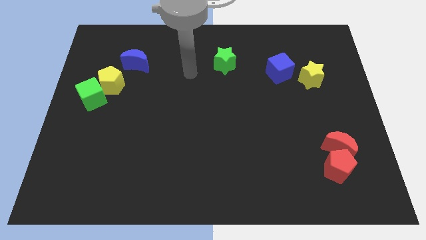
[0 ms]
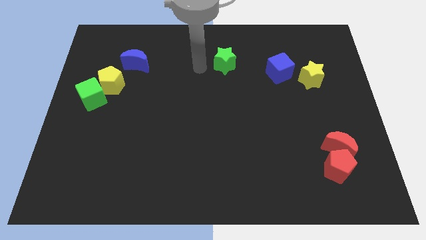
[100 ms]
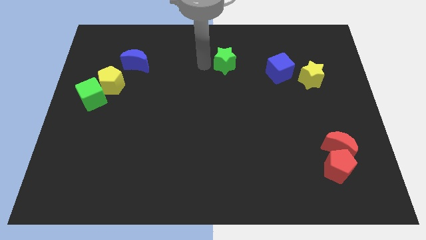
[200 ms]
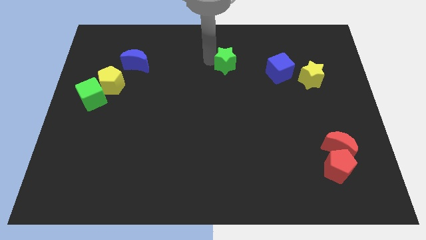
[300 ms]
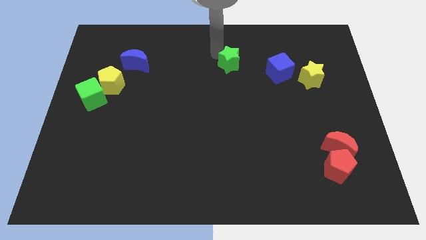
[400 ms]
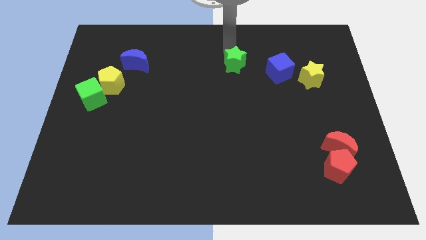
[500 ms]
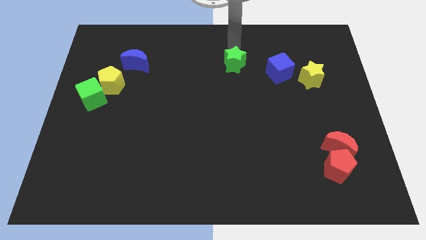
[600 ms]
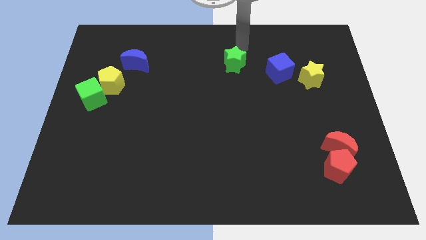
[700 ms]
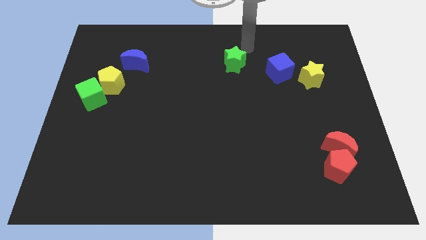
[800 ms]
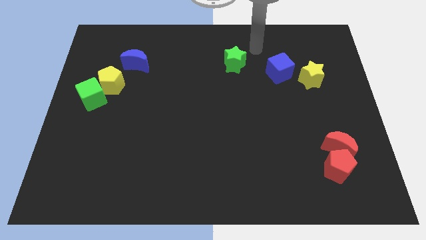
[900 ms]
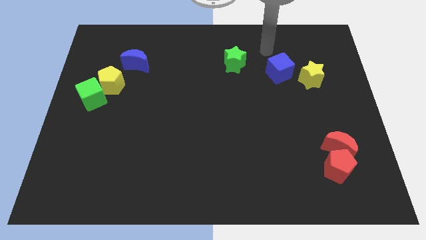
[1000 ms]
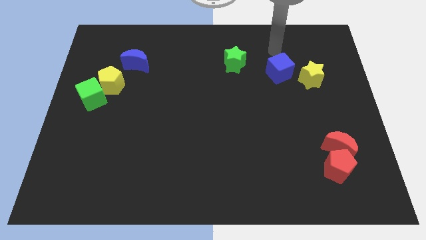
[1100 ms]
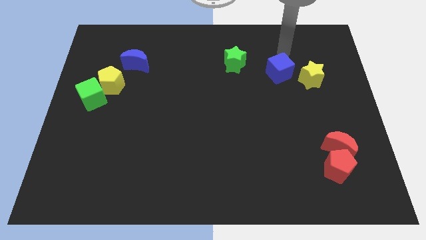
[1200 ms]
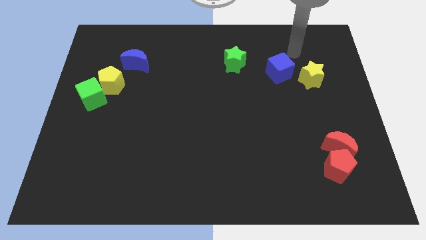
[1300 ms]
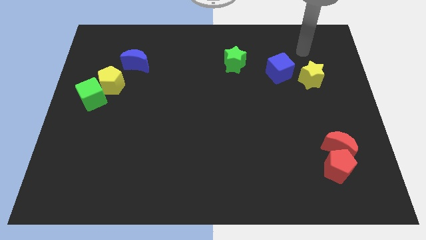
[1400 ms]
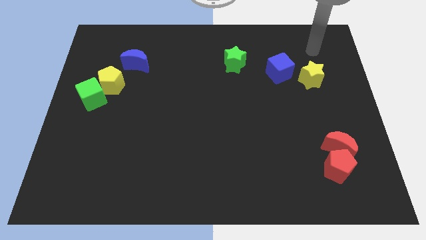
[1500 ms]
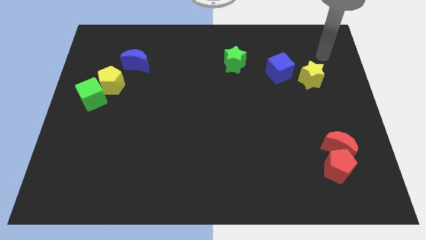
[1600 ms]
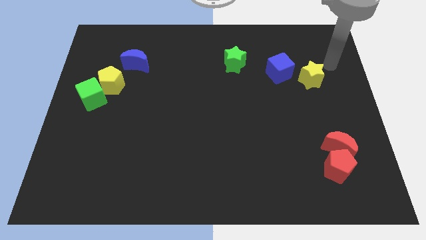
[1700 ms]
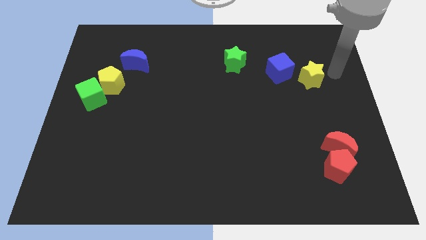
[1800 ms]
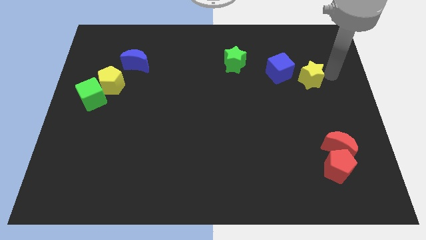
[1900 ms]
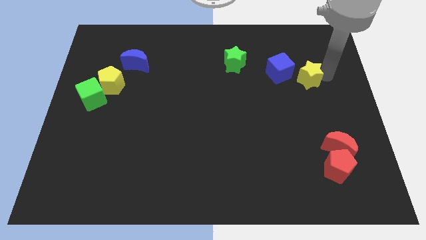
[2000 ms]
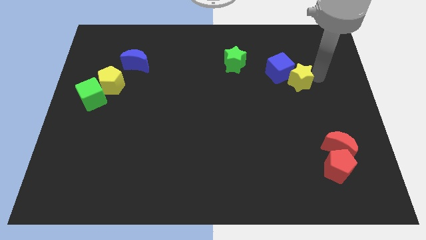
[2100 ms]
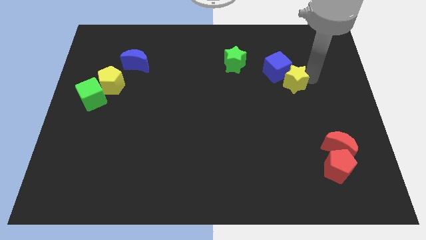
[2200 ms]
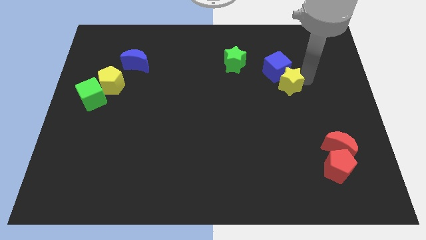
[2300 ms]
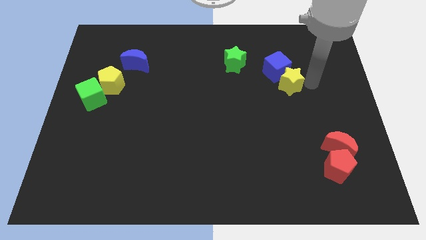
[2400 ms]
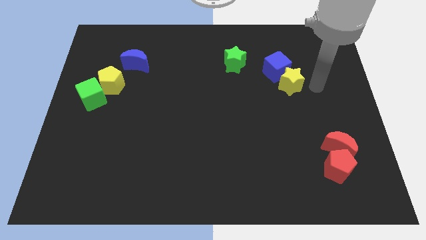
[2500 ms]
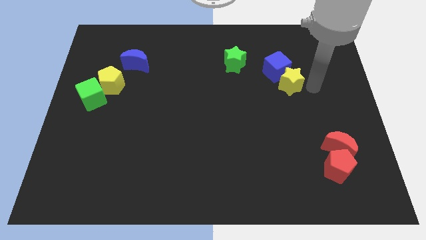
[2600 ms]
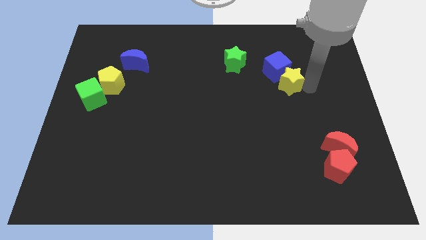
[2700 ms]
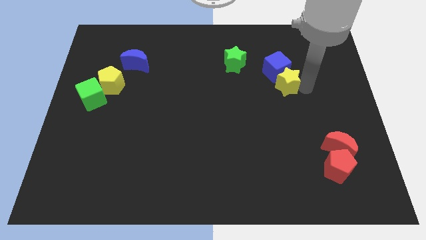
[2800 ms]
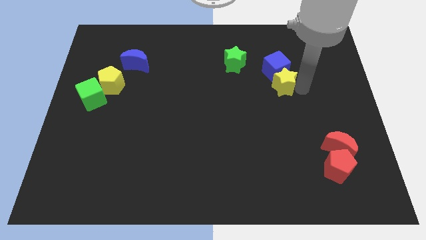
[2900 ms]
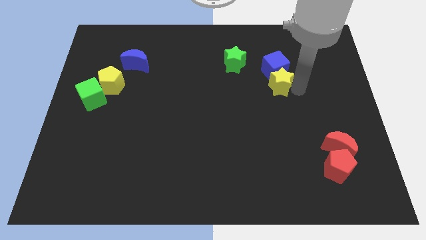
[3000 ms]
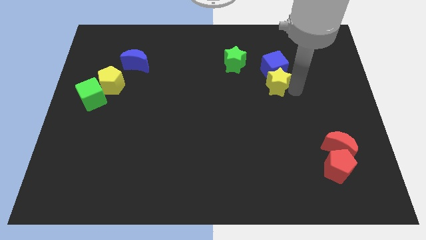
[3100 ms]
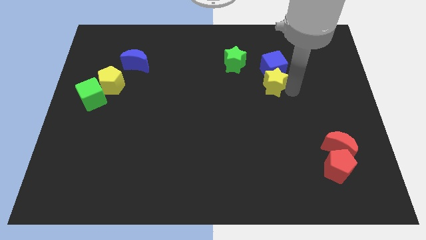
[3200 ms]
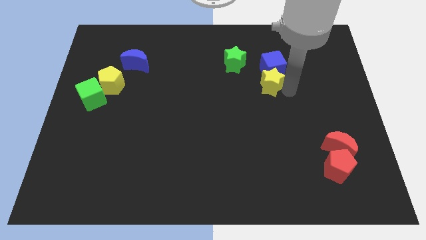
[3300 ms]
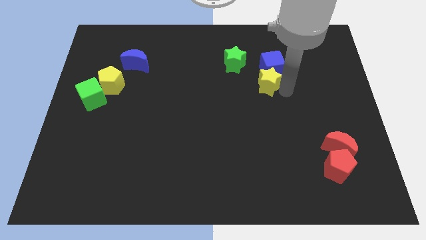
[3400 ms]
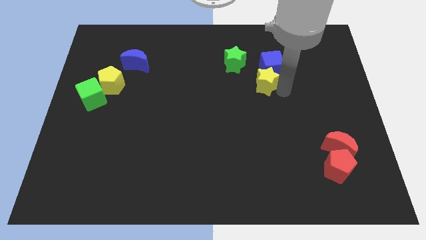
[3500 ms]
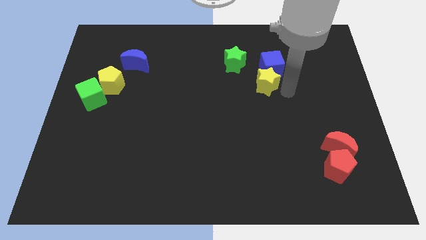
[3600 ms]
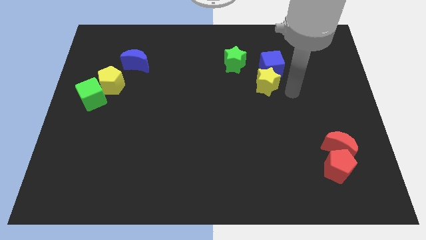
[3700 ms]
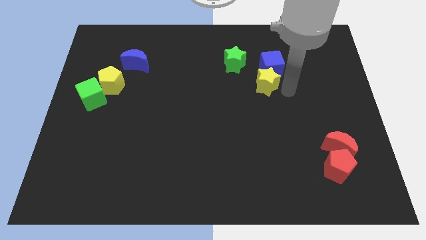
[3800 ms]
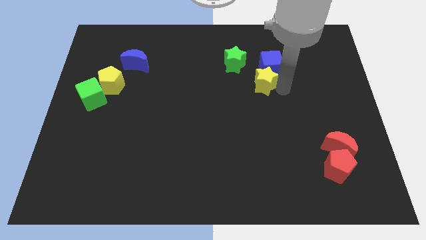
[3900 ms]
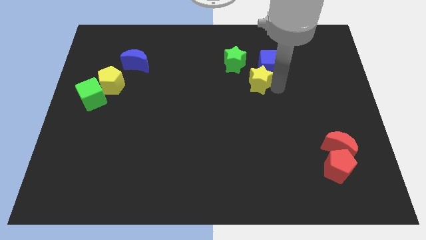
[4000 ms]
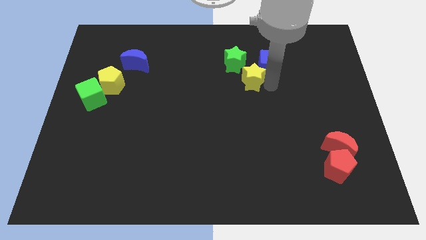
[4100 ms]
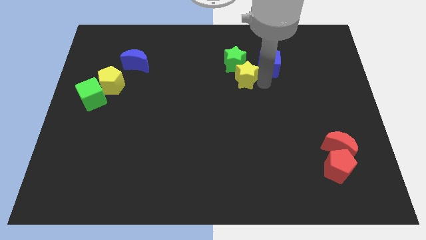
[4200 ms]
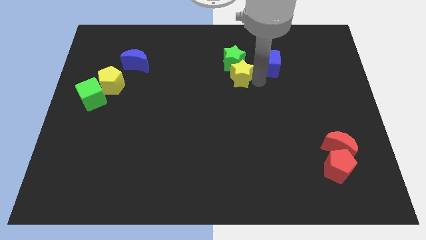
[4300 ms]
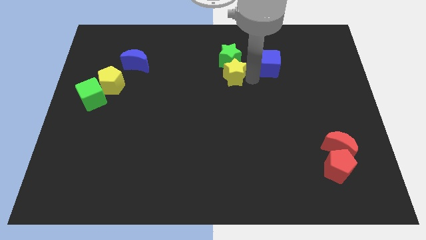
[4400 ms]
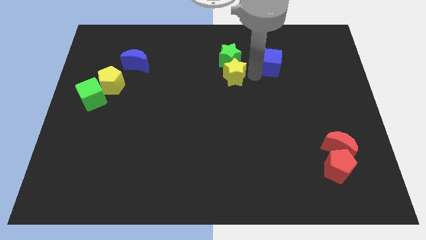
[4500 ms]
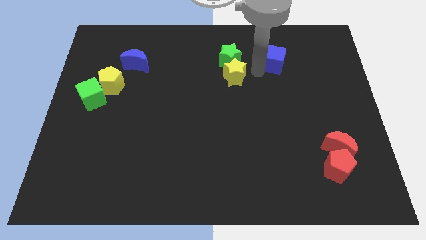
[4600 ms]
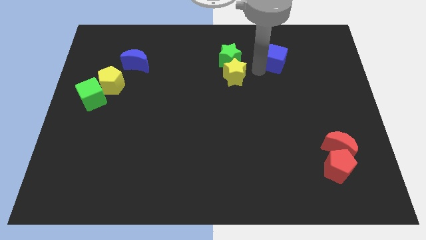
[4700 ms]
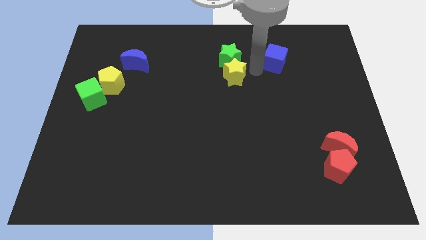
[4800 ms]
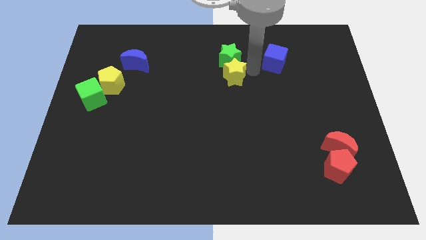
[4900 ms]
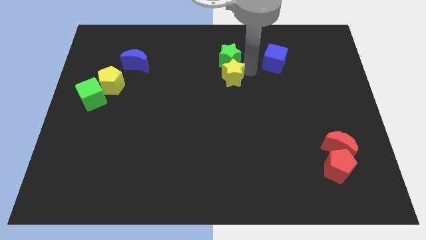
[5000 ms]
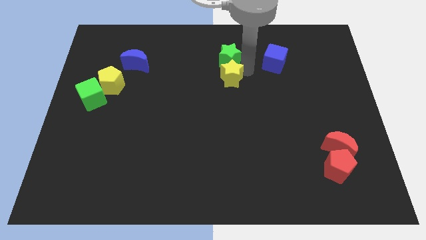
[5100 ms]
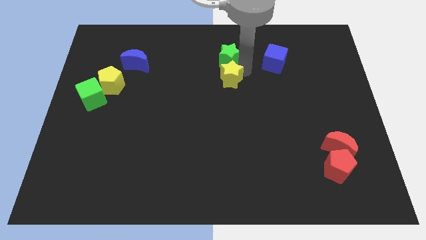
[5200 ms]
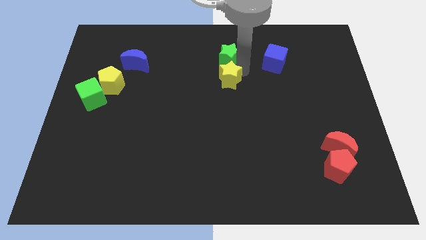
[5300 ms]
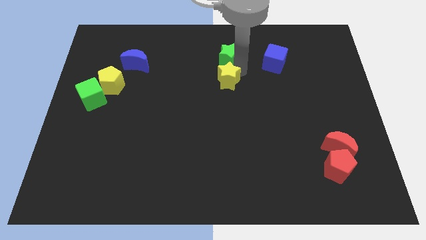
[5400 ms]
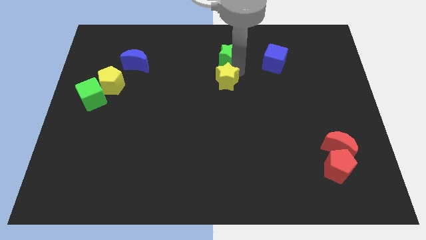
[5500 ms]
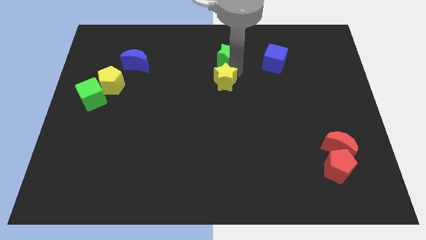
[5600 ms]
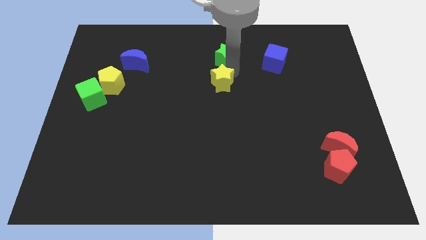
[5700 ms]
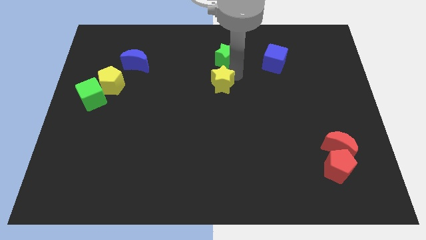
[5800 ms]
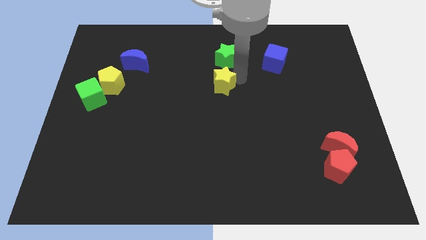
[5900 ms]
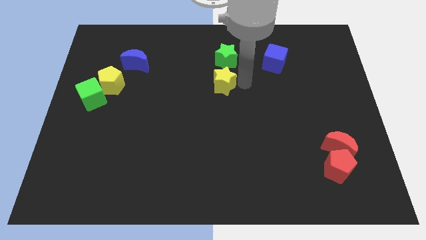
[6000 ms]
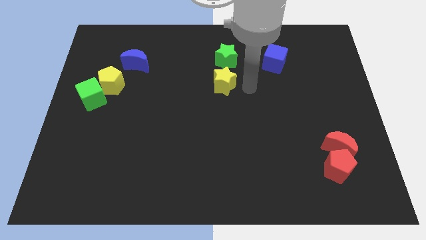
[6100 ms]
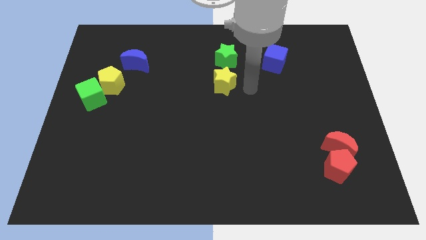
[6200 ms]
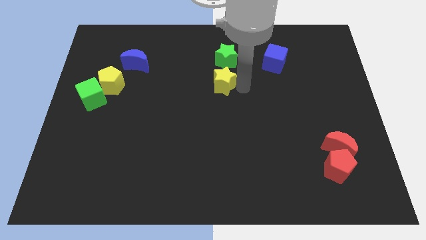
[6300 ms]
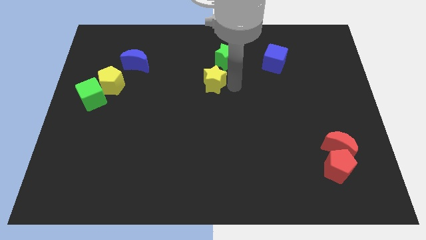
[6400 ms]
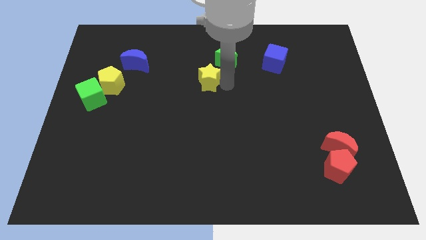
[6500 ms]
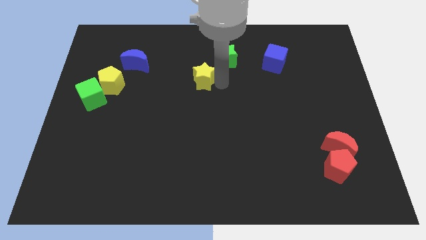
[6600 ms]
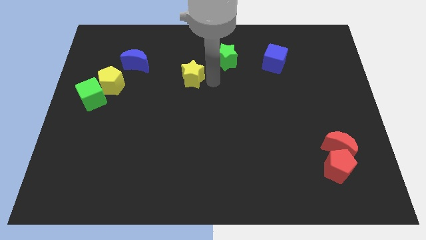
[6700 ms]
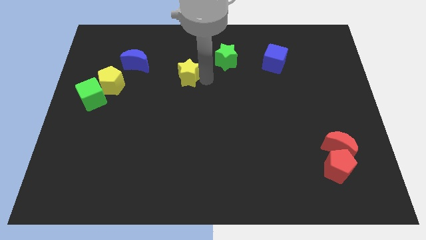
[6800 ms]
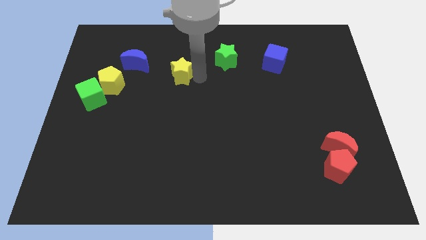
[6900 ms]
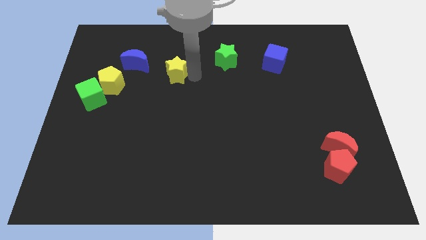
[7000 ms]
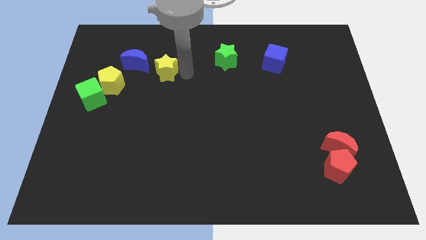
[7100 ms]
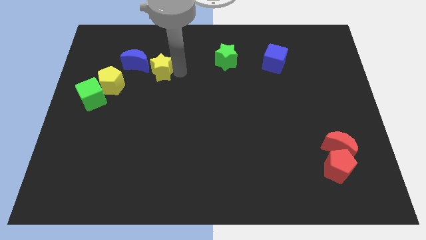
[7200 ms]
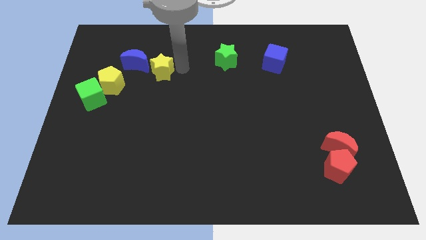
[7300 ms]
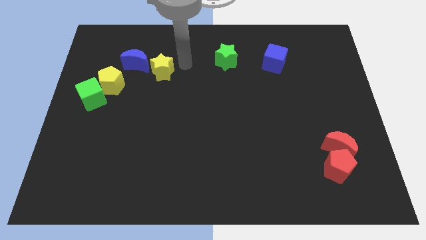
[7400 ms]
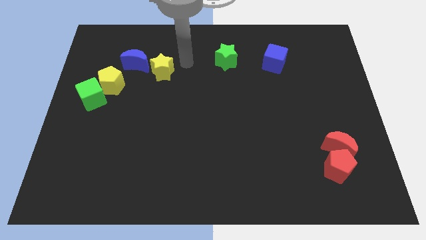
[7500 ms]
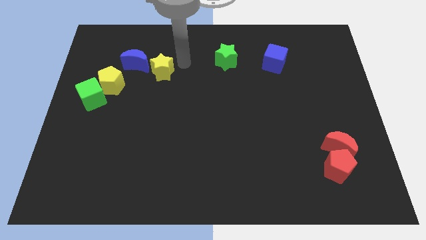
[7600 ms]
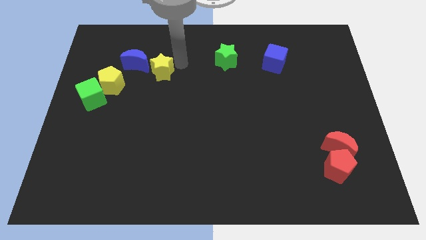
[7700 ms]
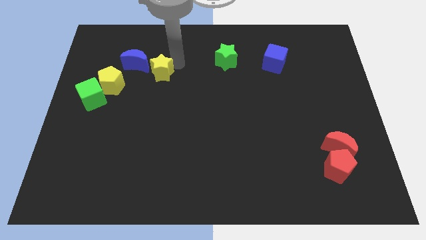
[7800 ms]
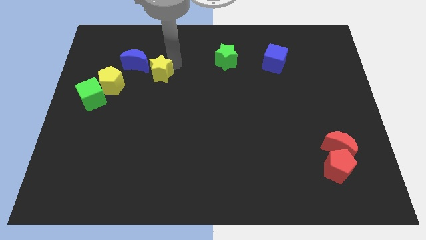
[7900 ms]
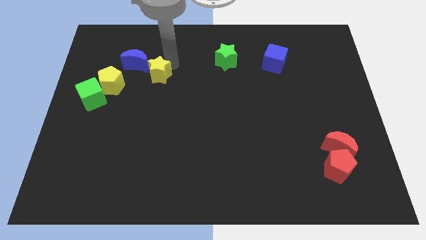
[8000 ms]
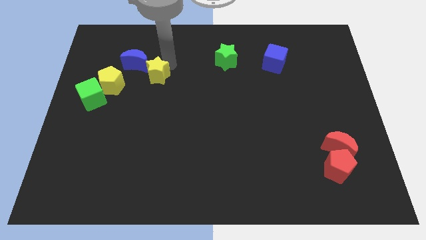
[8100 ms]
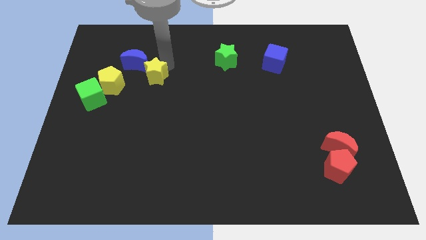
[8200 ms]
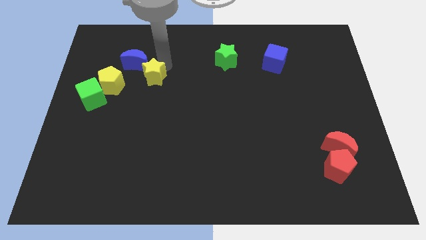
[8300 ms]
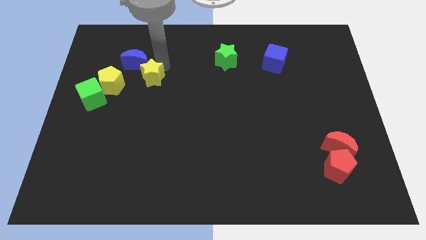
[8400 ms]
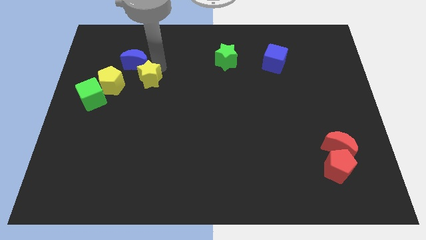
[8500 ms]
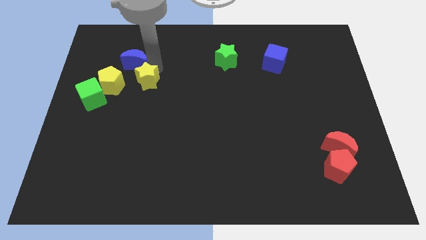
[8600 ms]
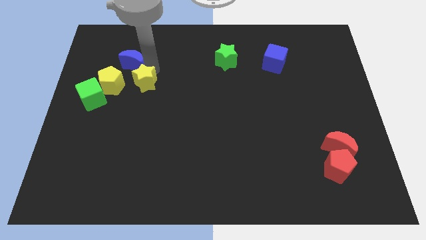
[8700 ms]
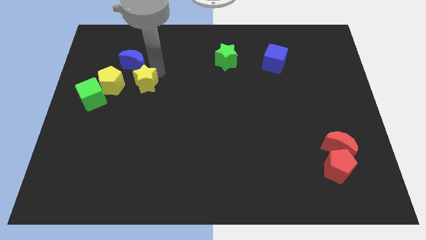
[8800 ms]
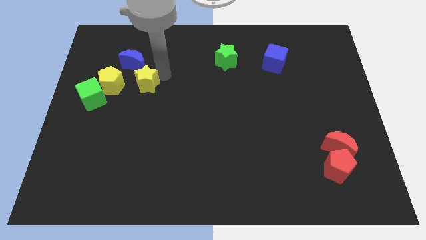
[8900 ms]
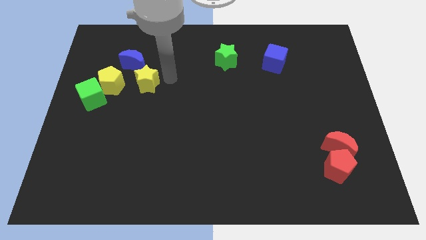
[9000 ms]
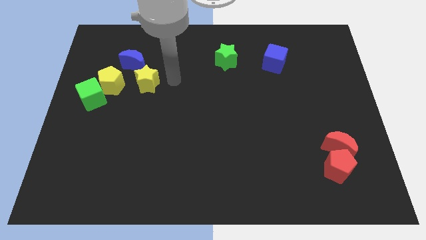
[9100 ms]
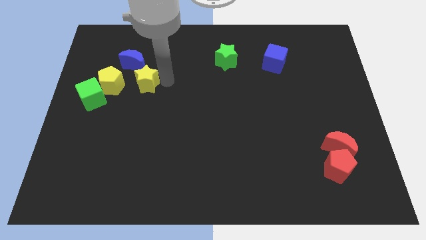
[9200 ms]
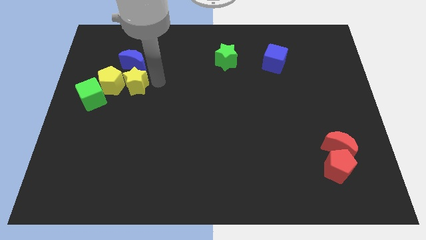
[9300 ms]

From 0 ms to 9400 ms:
push the yellow star next to the yellow pentagon
